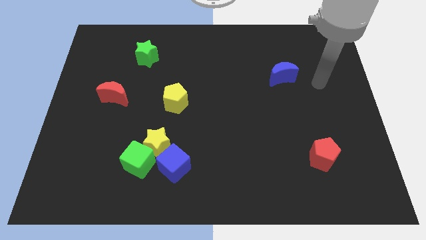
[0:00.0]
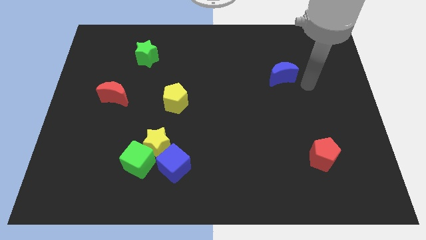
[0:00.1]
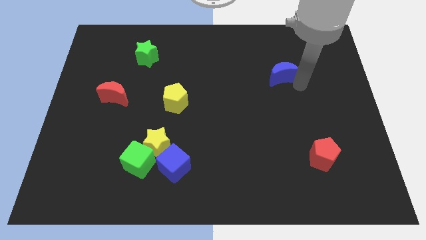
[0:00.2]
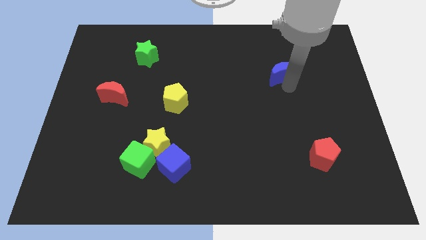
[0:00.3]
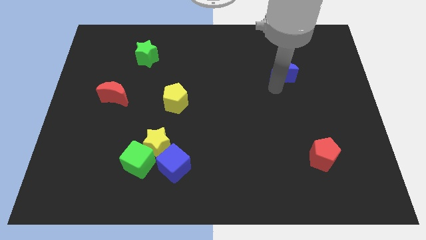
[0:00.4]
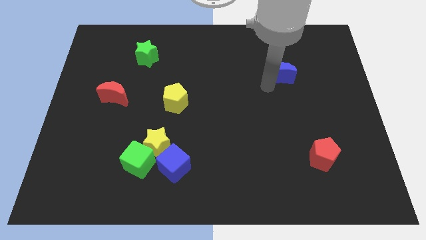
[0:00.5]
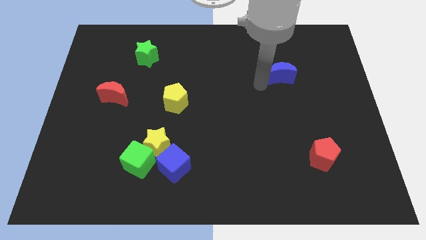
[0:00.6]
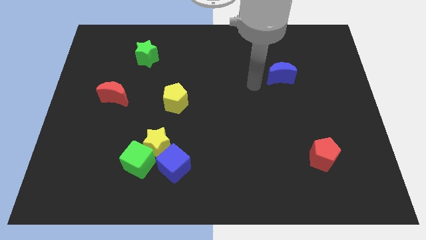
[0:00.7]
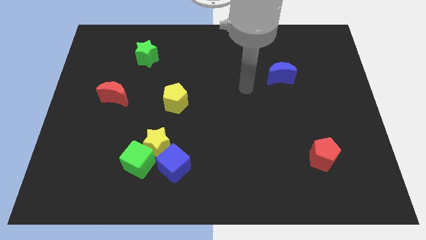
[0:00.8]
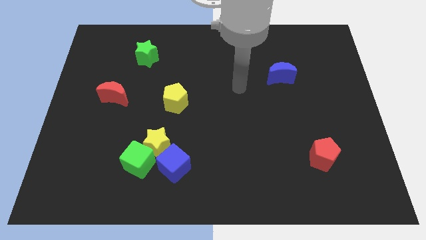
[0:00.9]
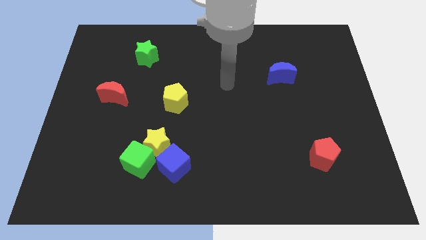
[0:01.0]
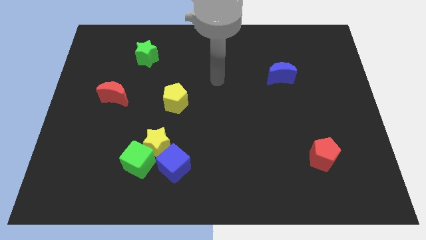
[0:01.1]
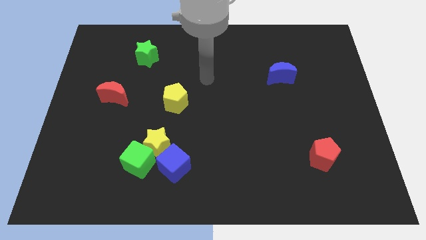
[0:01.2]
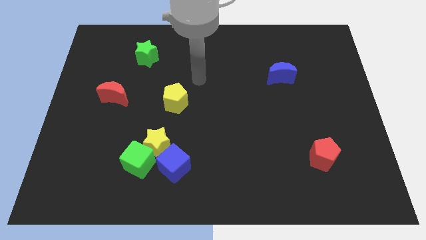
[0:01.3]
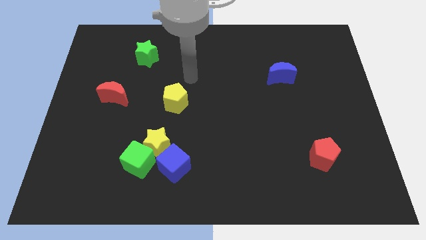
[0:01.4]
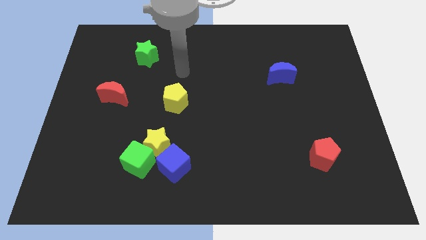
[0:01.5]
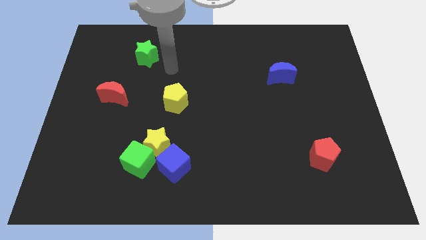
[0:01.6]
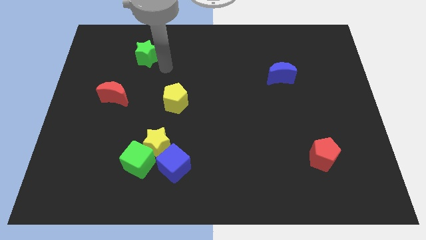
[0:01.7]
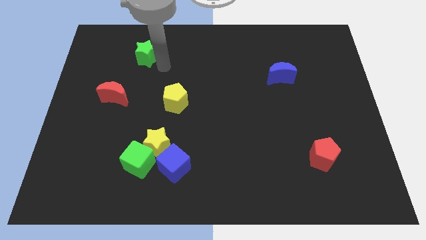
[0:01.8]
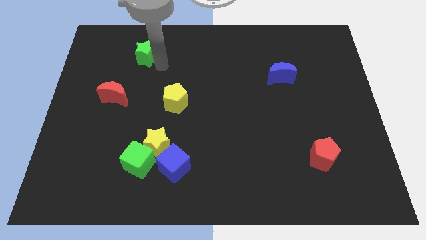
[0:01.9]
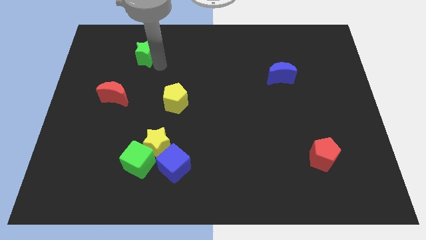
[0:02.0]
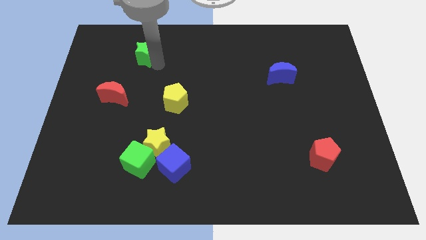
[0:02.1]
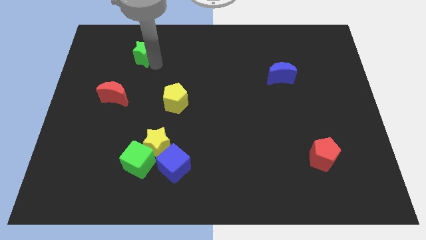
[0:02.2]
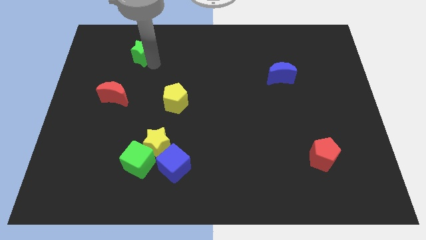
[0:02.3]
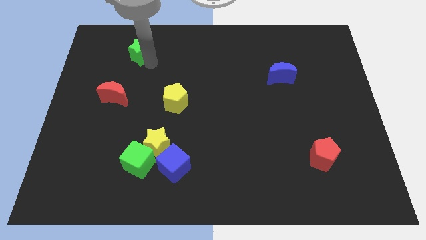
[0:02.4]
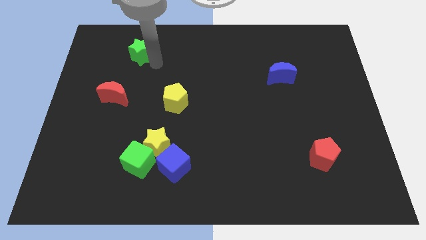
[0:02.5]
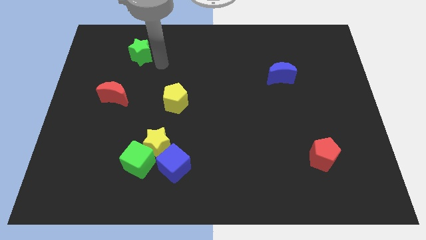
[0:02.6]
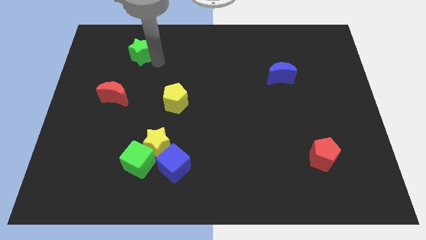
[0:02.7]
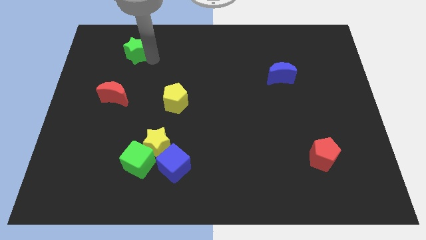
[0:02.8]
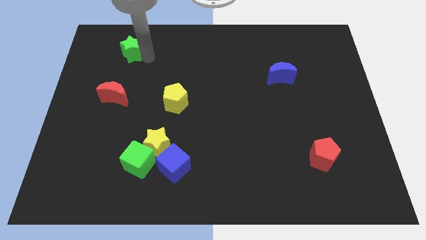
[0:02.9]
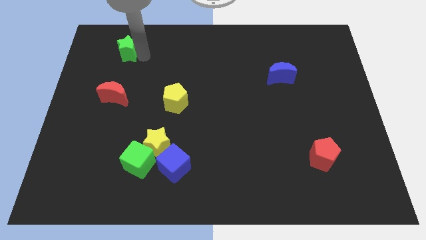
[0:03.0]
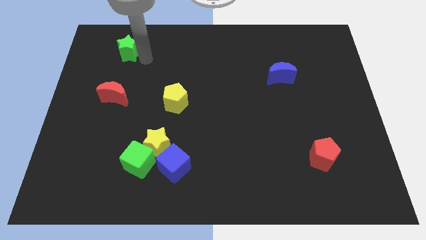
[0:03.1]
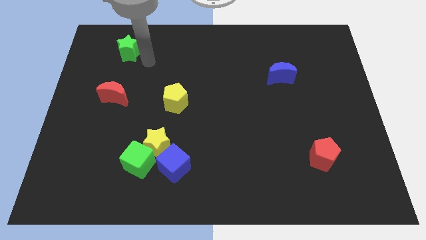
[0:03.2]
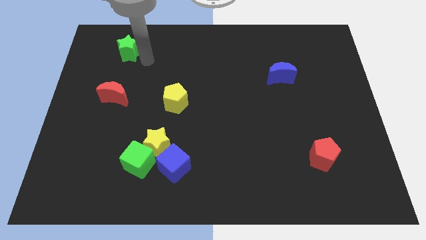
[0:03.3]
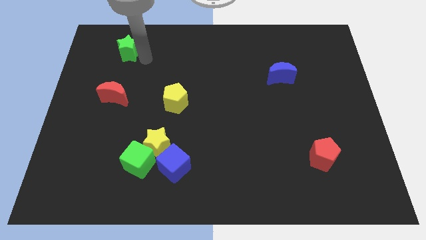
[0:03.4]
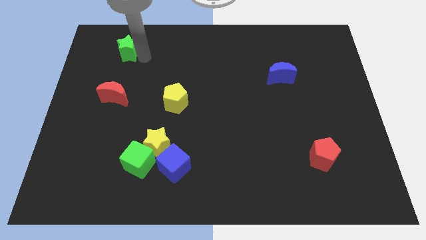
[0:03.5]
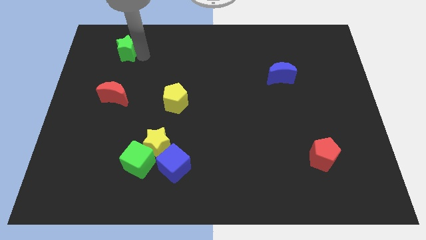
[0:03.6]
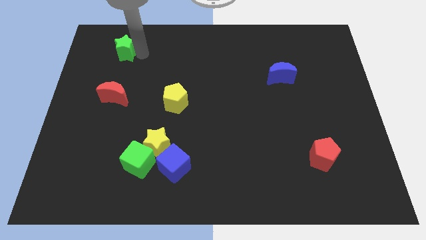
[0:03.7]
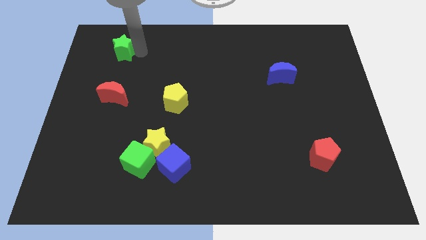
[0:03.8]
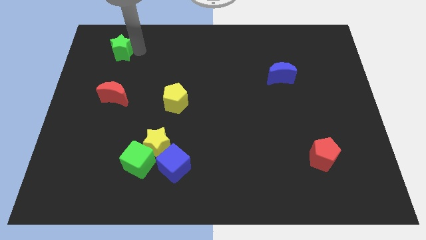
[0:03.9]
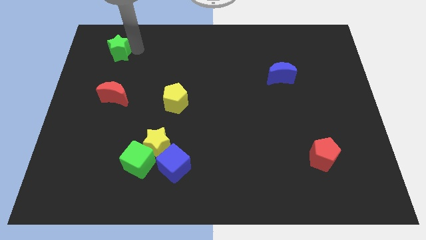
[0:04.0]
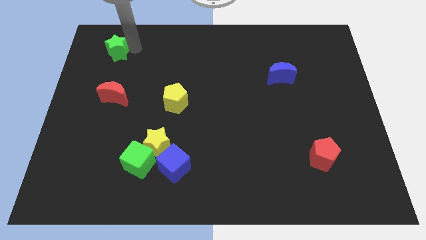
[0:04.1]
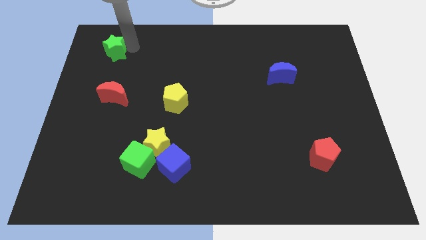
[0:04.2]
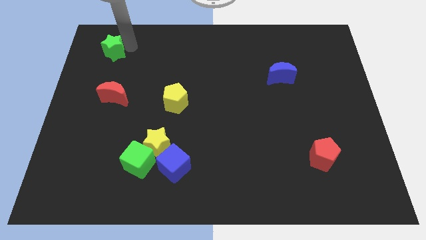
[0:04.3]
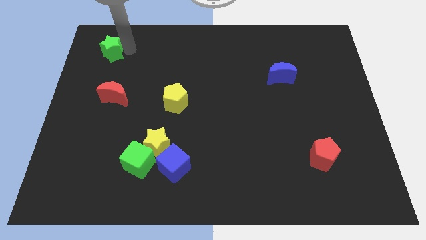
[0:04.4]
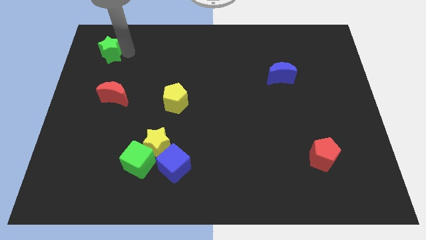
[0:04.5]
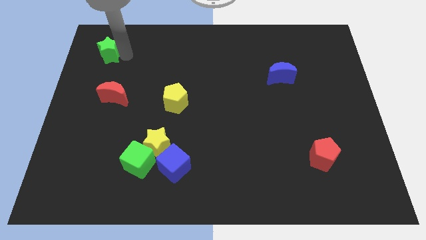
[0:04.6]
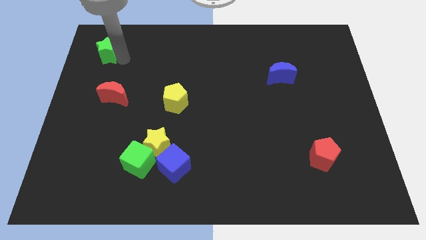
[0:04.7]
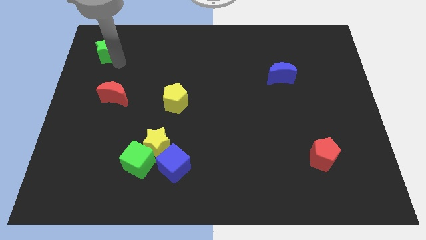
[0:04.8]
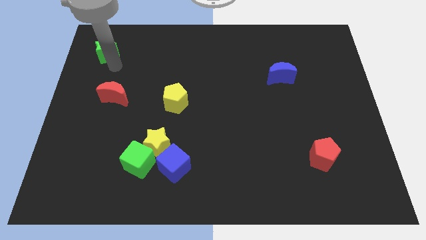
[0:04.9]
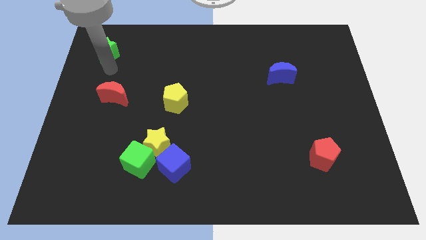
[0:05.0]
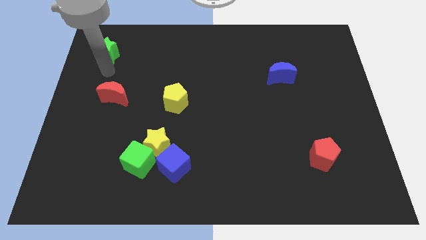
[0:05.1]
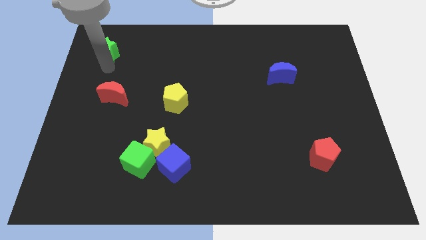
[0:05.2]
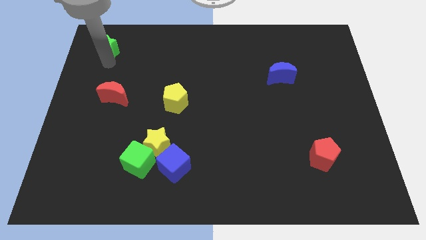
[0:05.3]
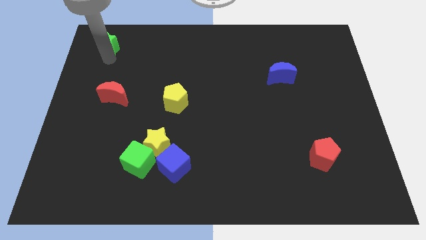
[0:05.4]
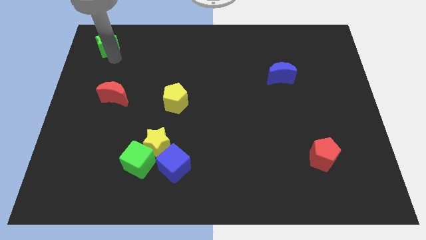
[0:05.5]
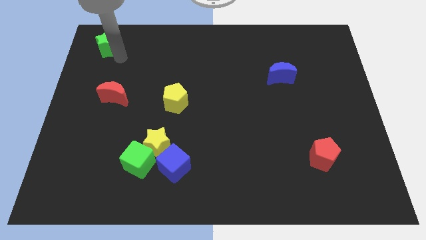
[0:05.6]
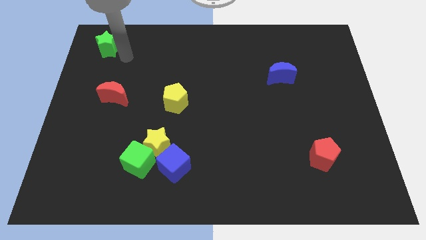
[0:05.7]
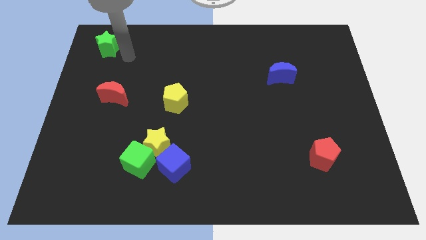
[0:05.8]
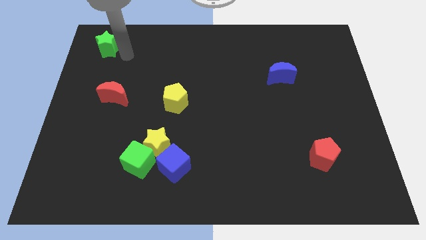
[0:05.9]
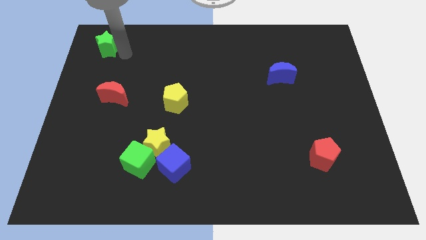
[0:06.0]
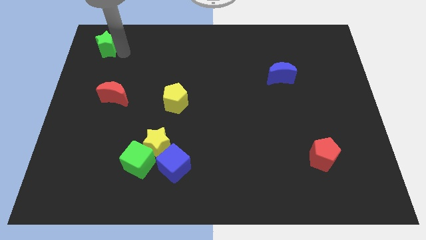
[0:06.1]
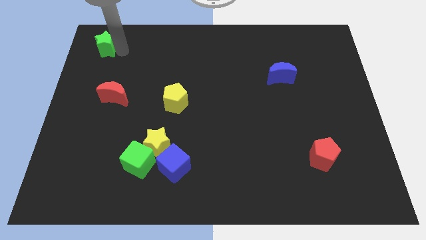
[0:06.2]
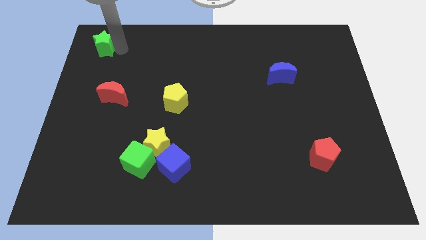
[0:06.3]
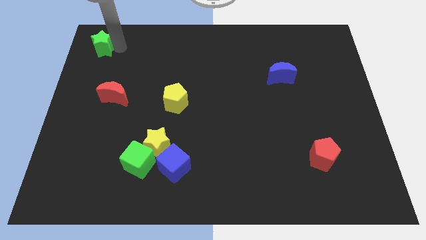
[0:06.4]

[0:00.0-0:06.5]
put the green star to the upper left corner
